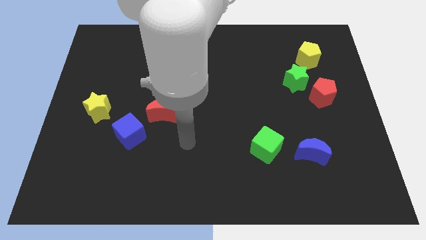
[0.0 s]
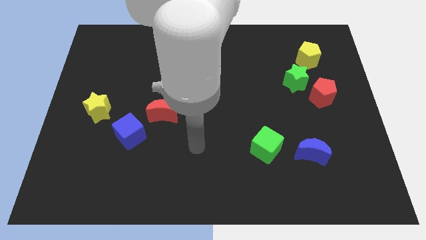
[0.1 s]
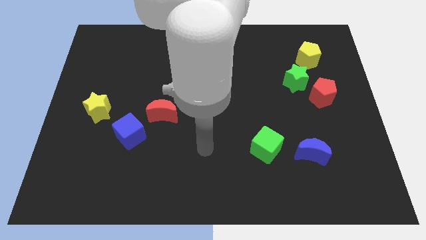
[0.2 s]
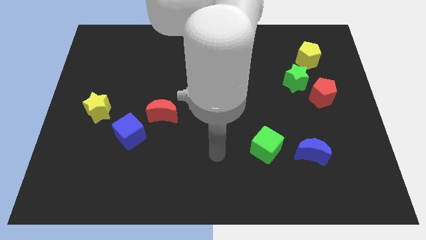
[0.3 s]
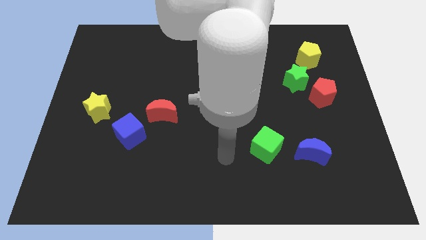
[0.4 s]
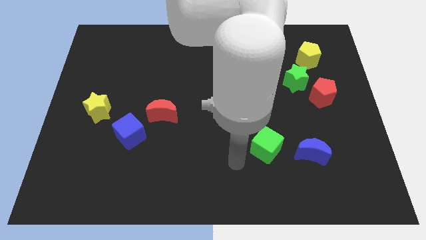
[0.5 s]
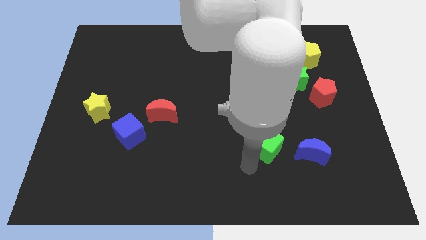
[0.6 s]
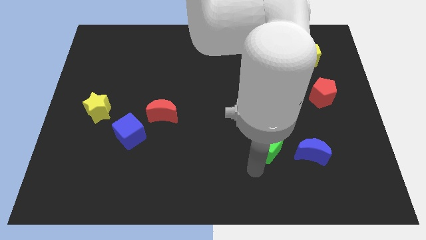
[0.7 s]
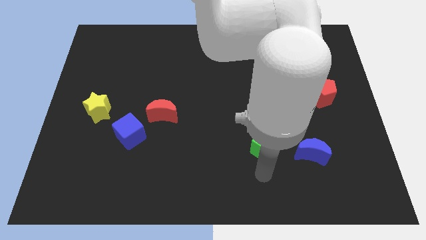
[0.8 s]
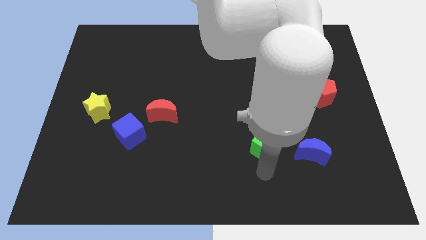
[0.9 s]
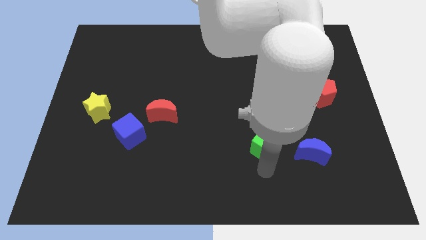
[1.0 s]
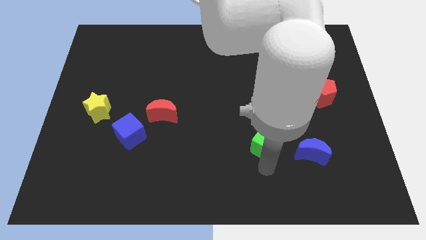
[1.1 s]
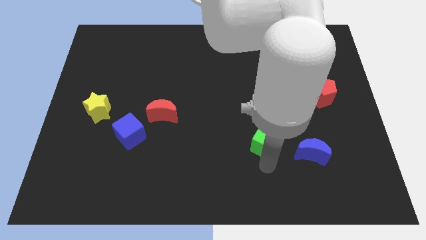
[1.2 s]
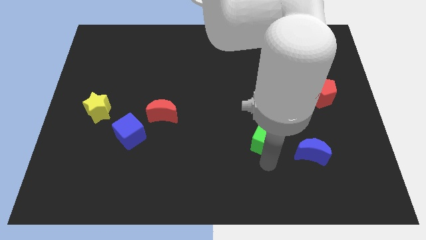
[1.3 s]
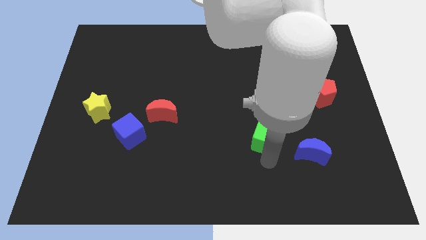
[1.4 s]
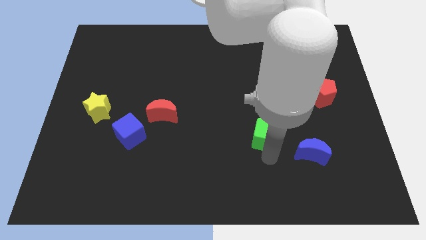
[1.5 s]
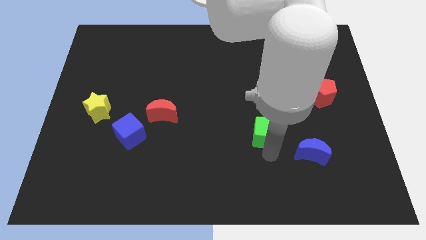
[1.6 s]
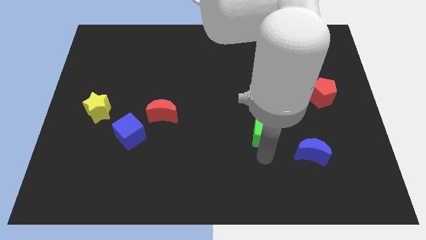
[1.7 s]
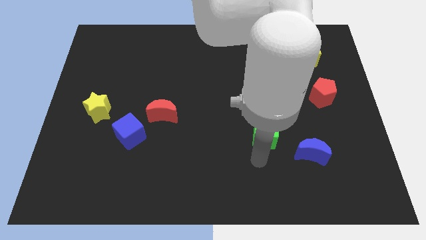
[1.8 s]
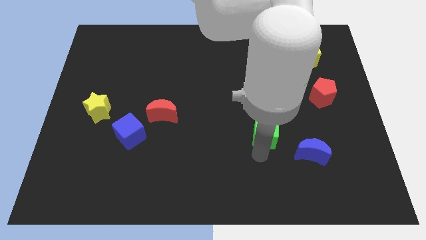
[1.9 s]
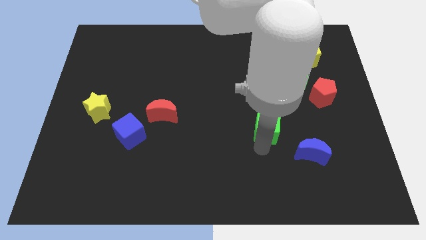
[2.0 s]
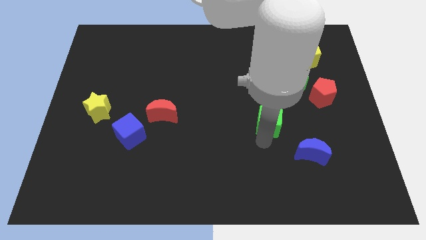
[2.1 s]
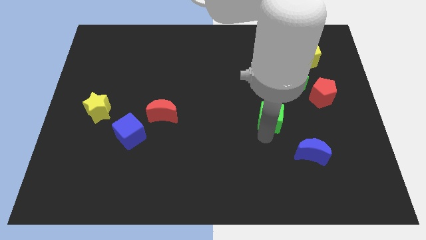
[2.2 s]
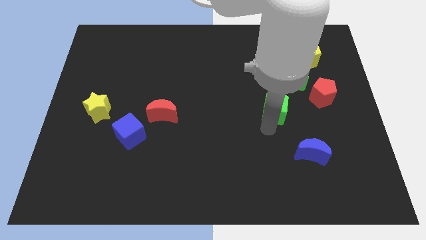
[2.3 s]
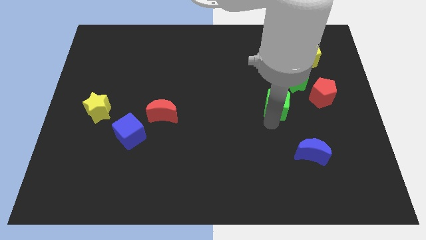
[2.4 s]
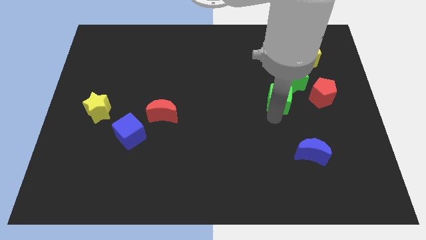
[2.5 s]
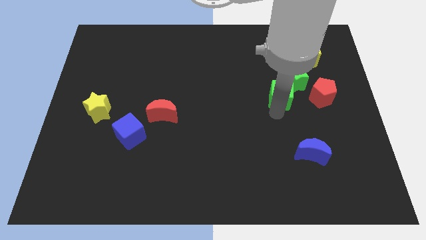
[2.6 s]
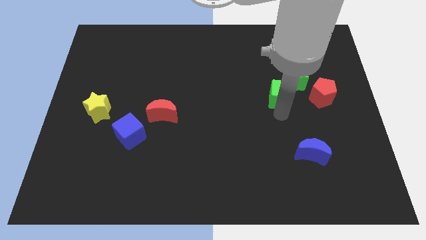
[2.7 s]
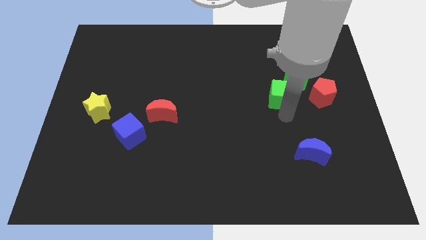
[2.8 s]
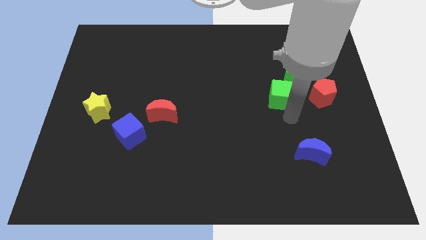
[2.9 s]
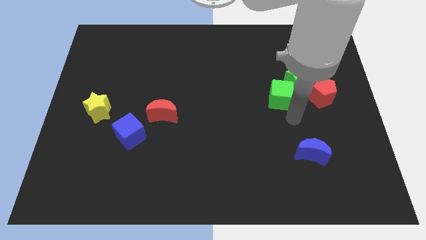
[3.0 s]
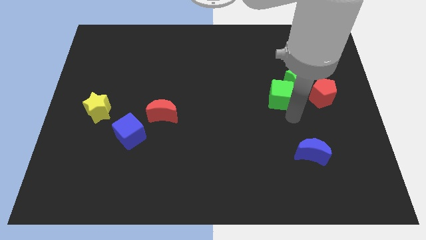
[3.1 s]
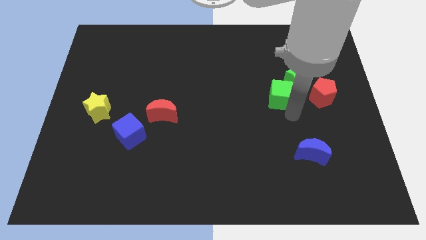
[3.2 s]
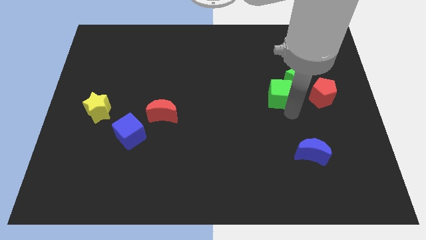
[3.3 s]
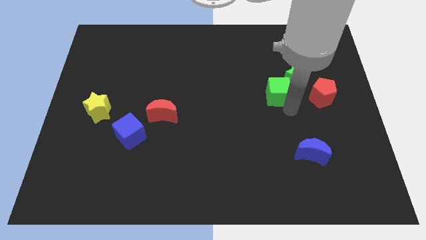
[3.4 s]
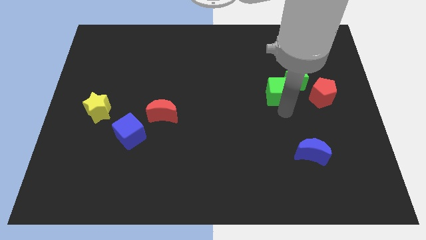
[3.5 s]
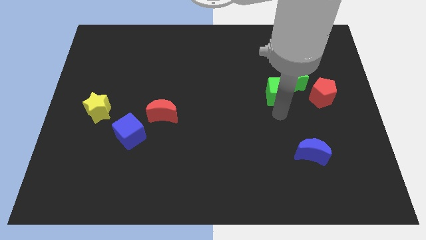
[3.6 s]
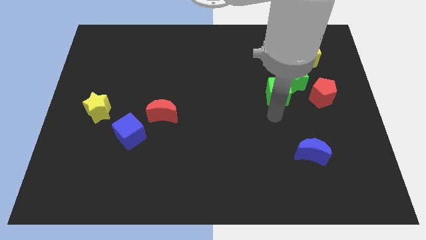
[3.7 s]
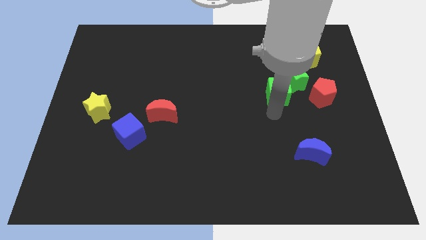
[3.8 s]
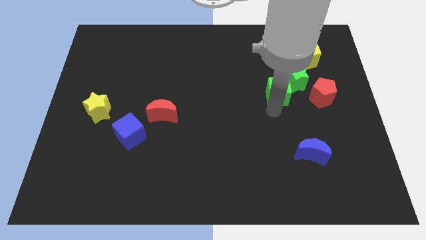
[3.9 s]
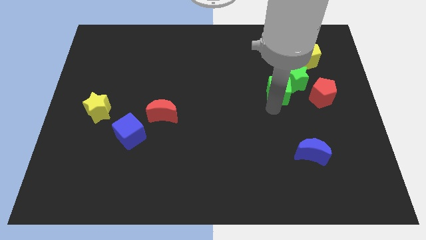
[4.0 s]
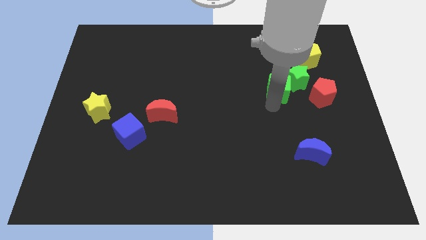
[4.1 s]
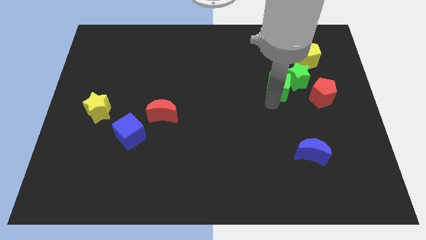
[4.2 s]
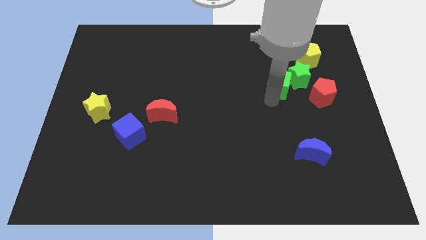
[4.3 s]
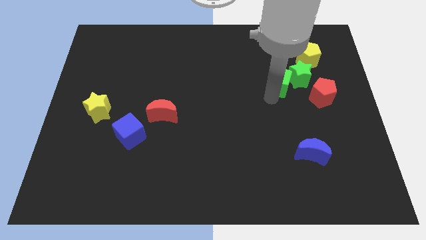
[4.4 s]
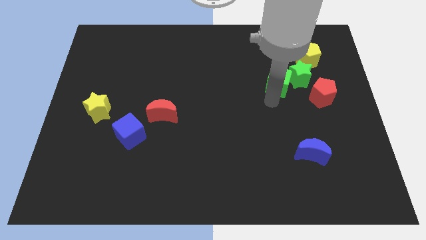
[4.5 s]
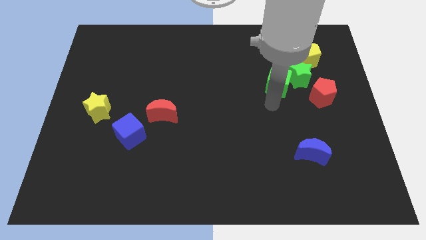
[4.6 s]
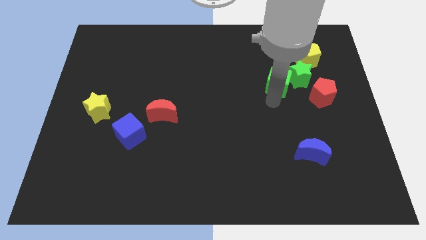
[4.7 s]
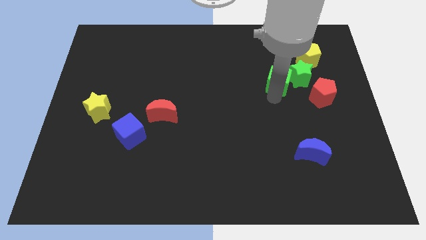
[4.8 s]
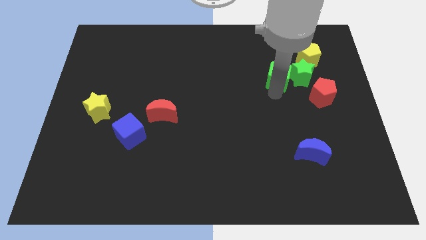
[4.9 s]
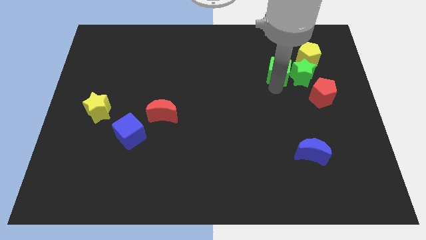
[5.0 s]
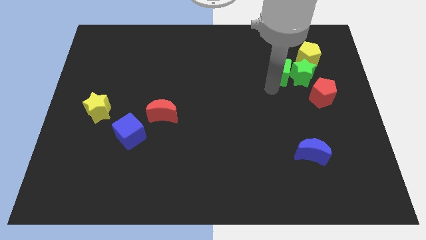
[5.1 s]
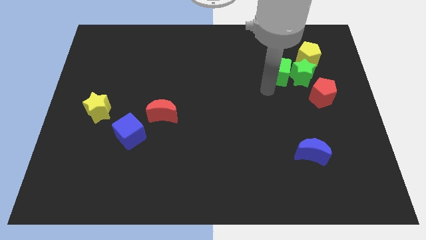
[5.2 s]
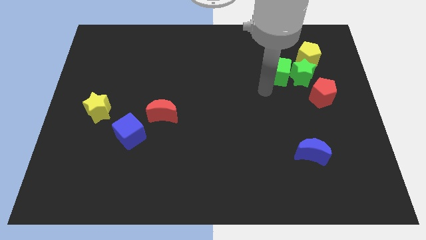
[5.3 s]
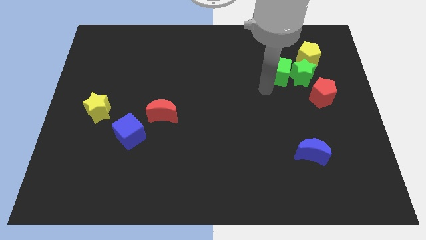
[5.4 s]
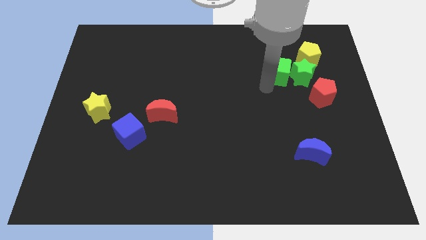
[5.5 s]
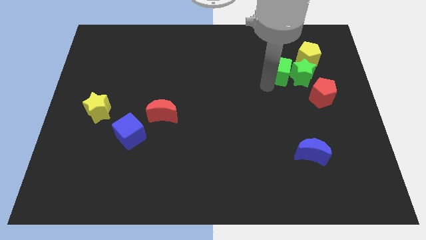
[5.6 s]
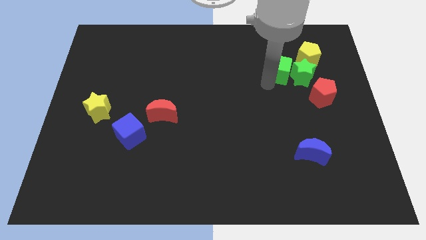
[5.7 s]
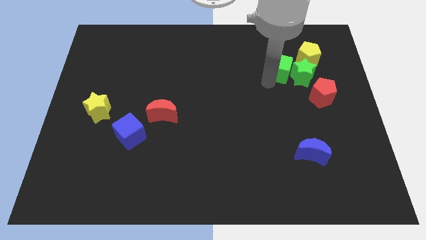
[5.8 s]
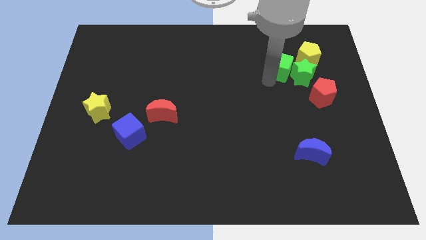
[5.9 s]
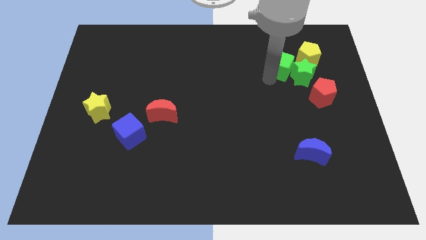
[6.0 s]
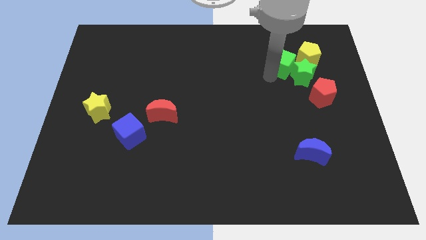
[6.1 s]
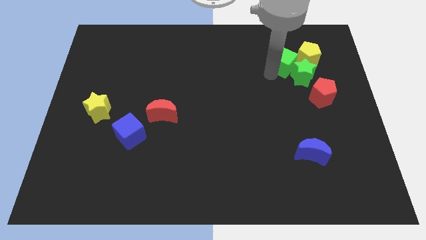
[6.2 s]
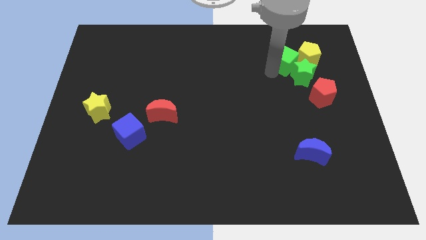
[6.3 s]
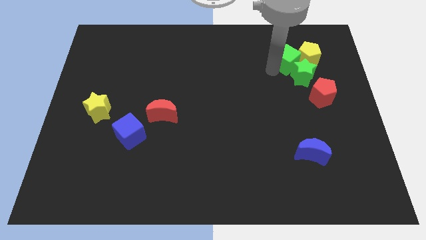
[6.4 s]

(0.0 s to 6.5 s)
slide the green cube to the yellow pentagon
